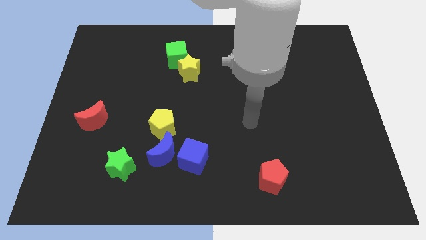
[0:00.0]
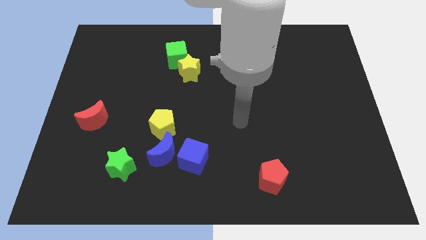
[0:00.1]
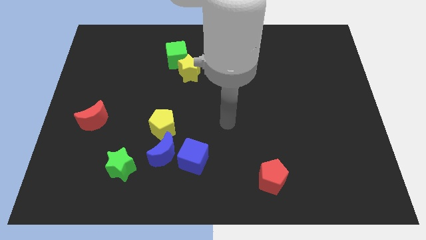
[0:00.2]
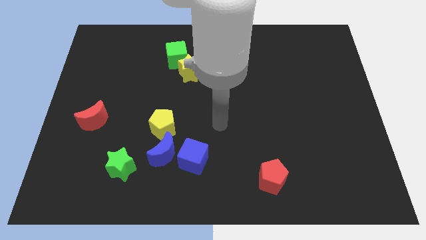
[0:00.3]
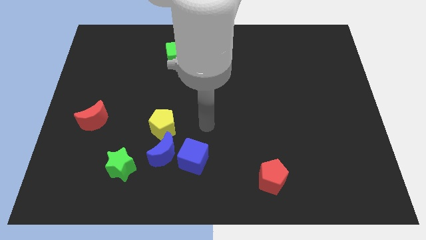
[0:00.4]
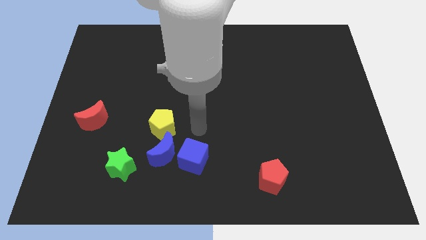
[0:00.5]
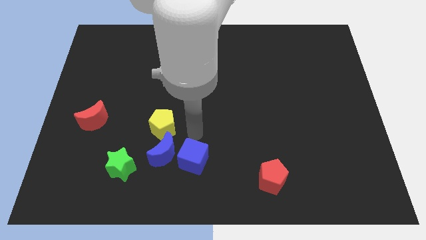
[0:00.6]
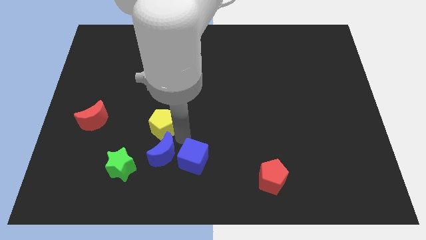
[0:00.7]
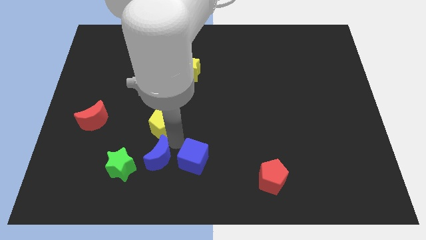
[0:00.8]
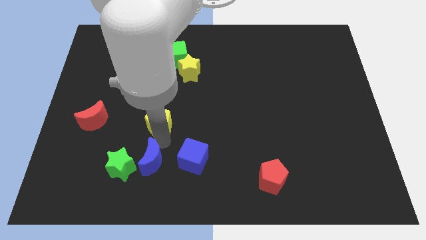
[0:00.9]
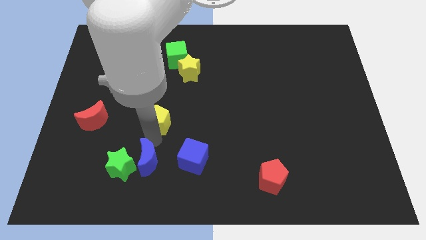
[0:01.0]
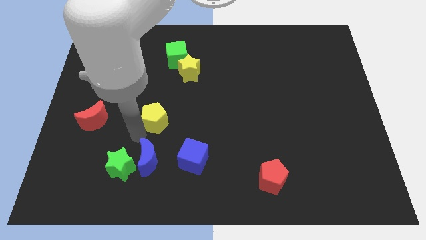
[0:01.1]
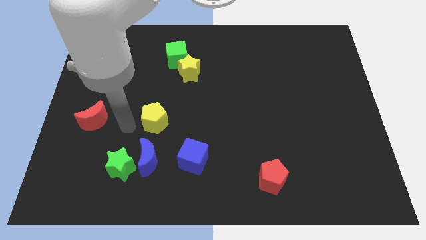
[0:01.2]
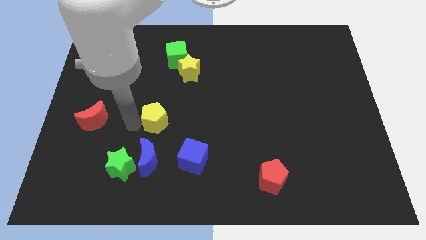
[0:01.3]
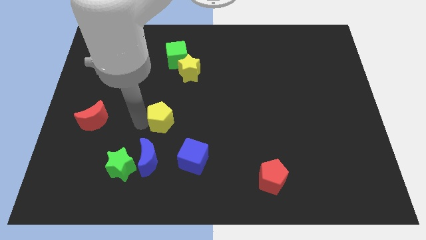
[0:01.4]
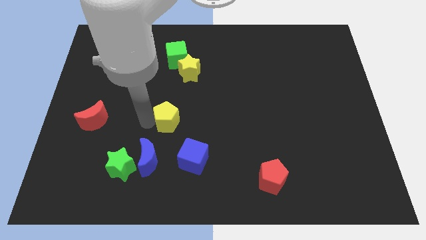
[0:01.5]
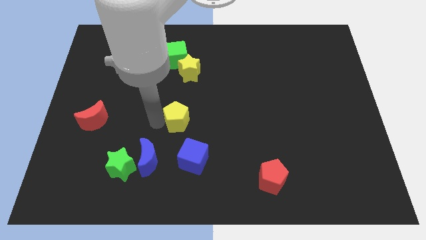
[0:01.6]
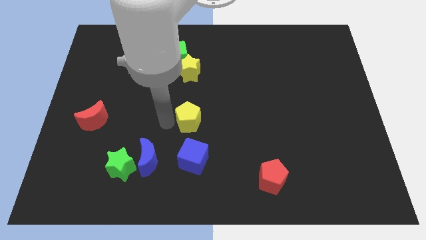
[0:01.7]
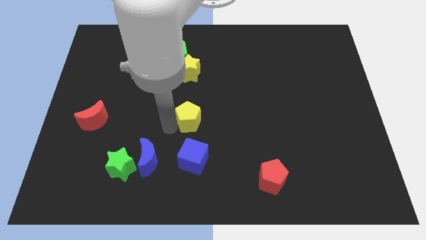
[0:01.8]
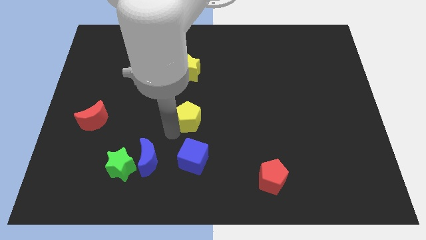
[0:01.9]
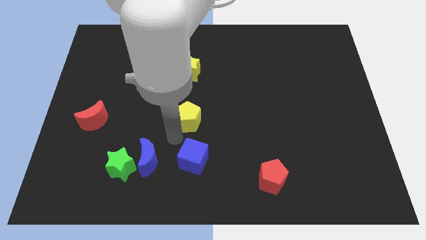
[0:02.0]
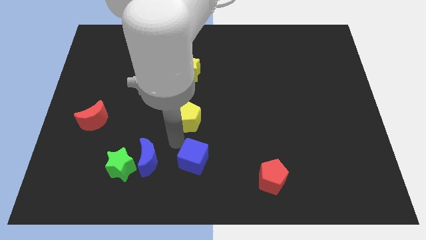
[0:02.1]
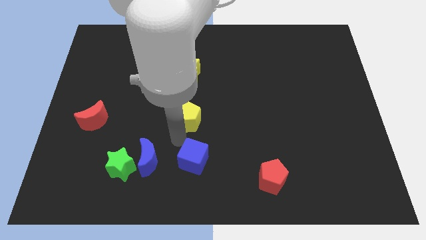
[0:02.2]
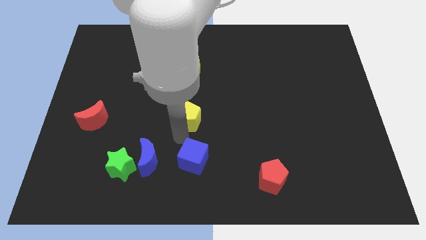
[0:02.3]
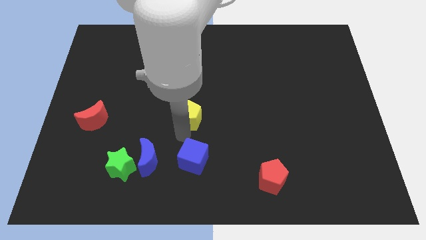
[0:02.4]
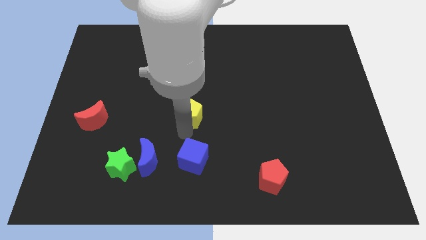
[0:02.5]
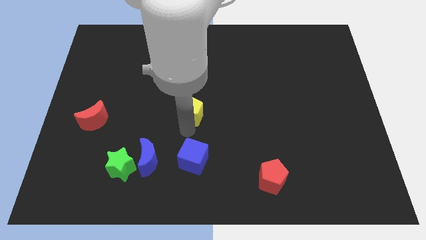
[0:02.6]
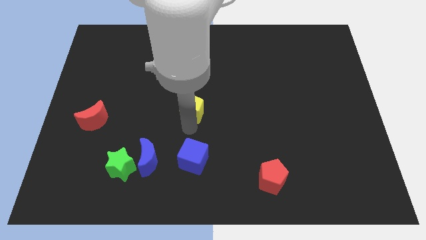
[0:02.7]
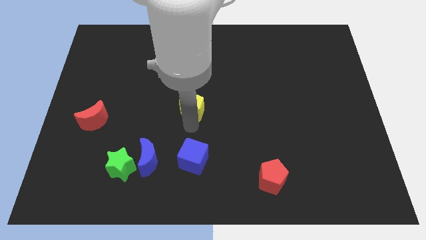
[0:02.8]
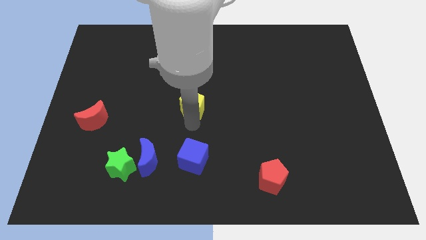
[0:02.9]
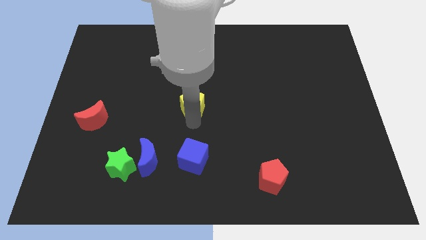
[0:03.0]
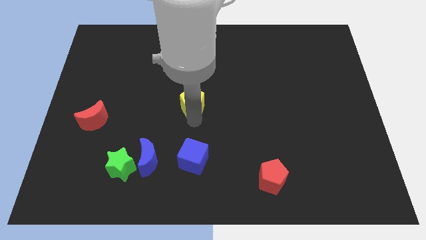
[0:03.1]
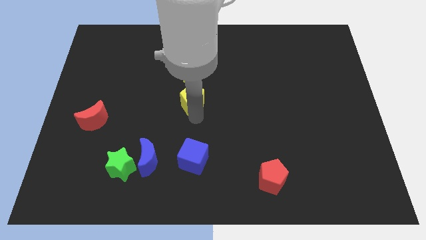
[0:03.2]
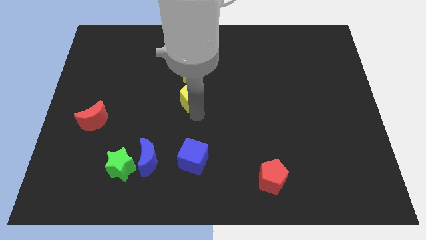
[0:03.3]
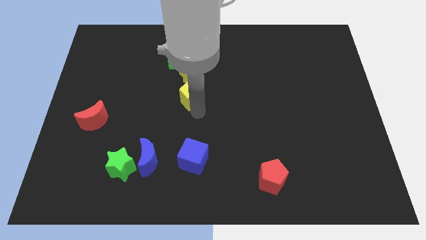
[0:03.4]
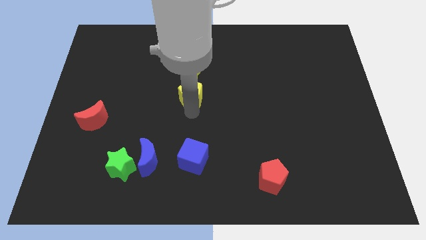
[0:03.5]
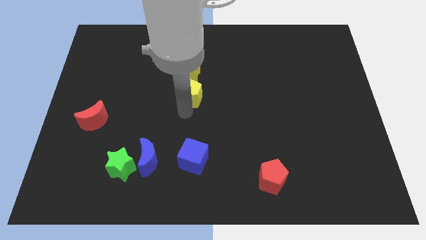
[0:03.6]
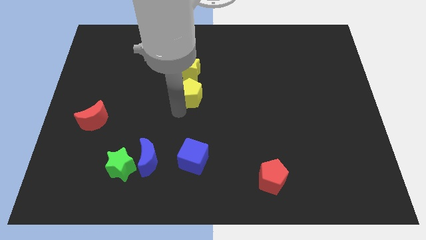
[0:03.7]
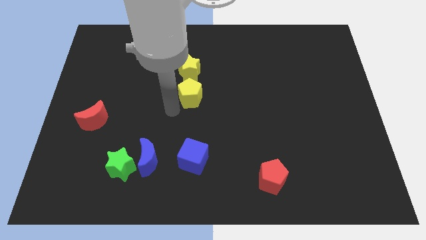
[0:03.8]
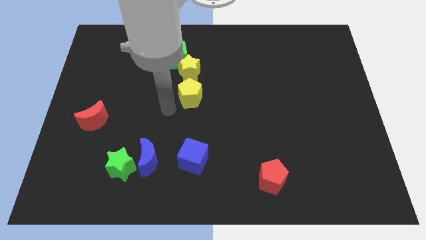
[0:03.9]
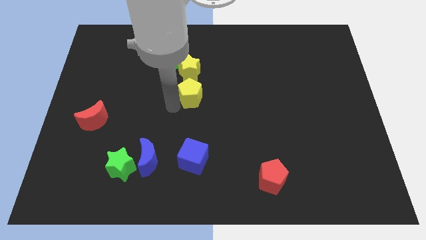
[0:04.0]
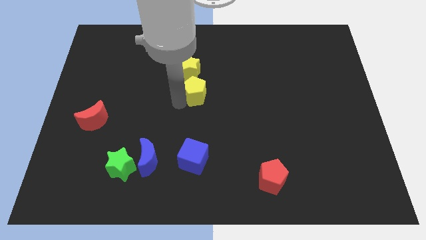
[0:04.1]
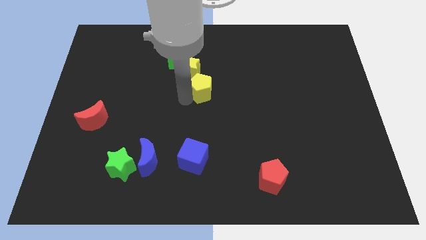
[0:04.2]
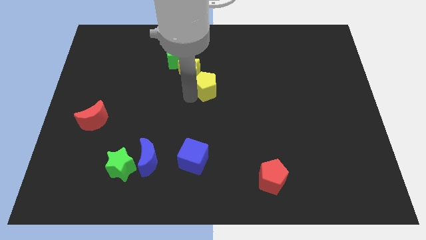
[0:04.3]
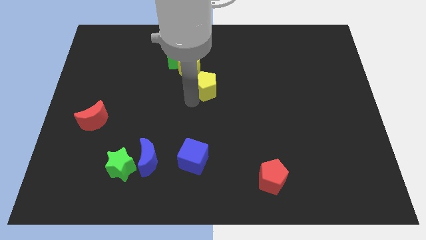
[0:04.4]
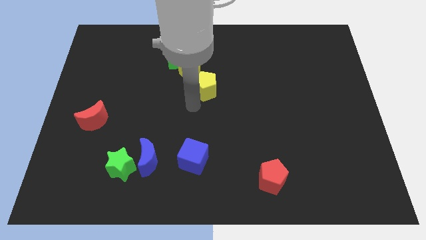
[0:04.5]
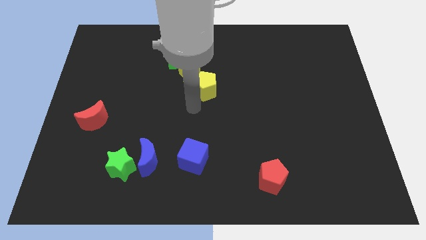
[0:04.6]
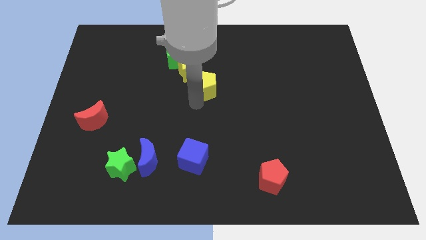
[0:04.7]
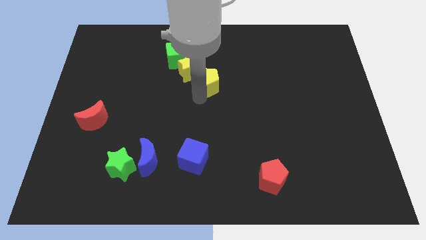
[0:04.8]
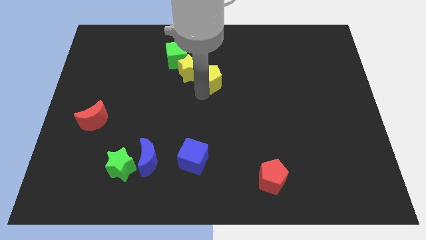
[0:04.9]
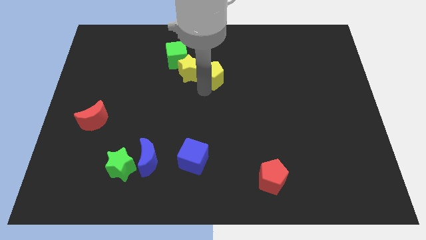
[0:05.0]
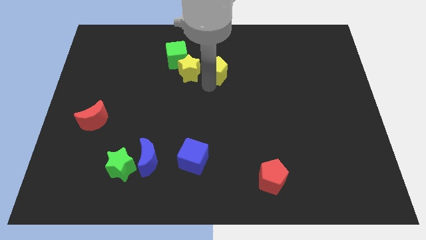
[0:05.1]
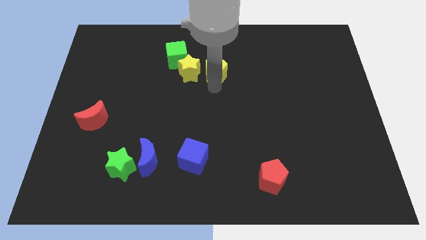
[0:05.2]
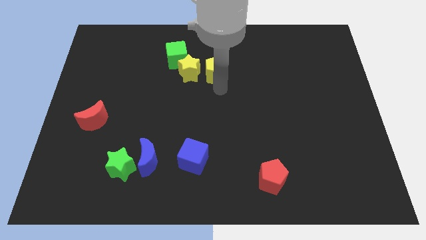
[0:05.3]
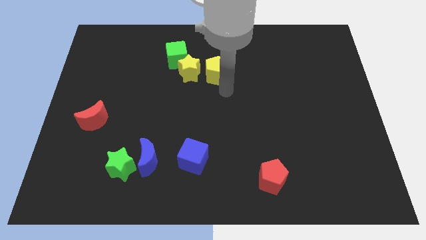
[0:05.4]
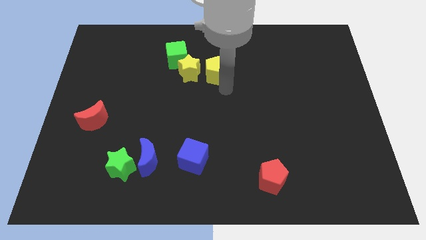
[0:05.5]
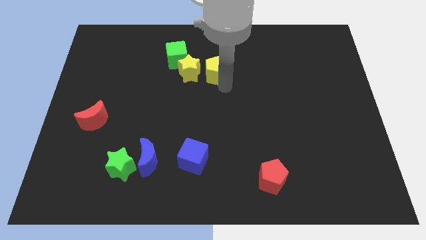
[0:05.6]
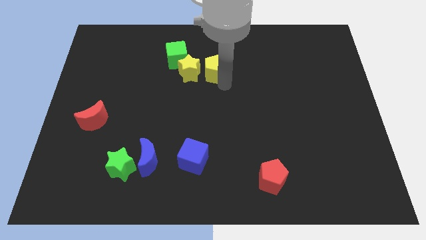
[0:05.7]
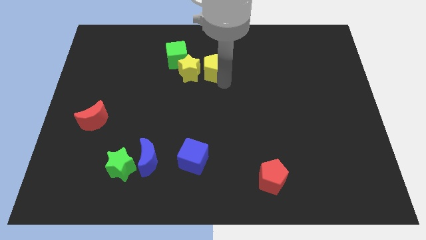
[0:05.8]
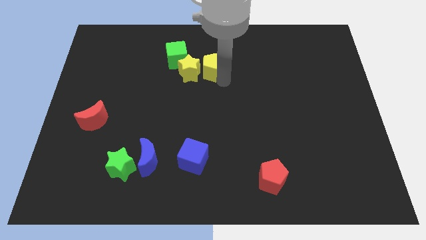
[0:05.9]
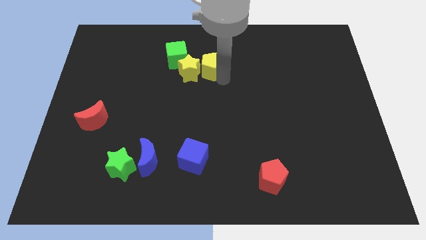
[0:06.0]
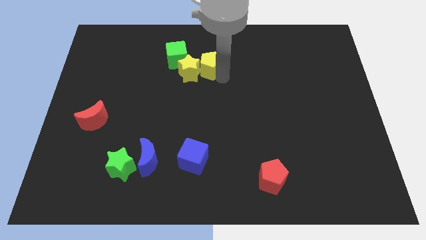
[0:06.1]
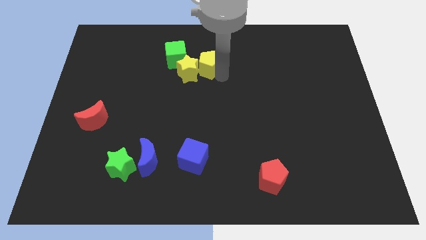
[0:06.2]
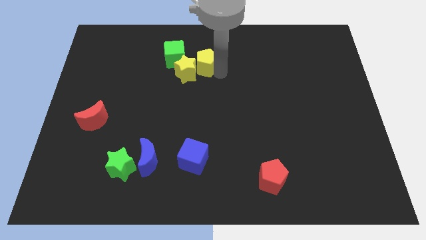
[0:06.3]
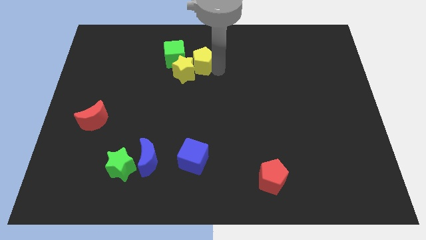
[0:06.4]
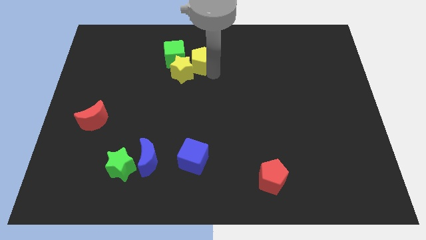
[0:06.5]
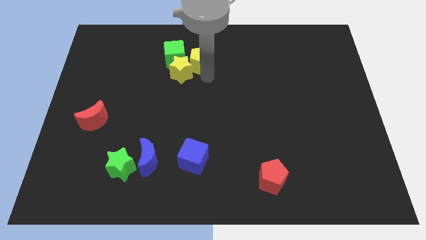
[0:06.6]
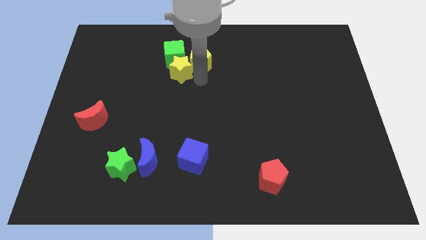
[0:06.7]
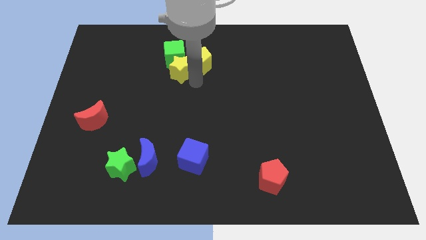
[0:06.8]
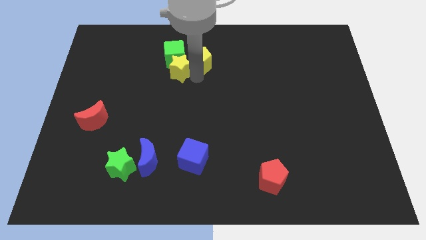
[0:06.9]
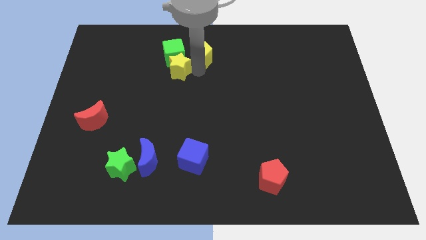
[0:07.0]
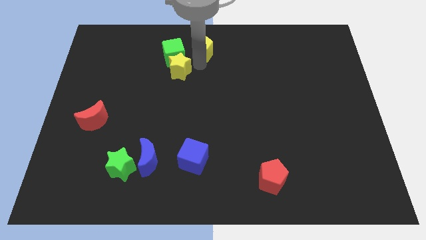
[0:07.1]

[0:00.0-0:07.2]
put the yellow pentagon to the top side
